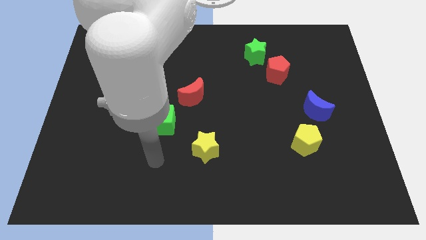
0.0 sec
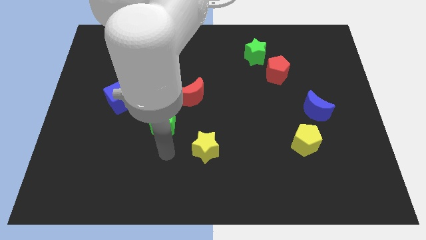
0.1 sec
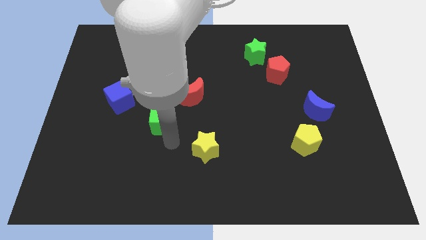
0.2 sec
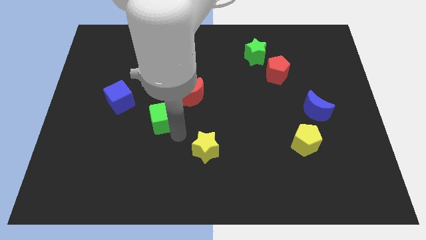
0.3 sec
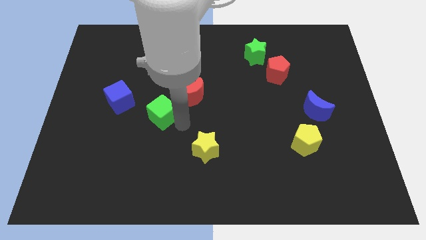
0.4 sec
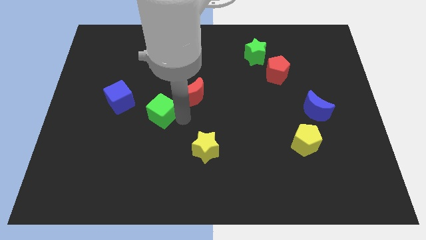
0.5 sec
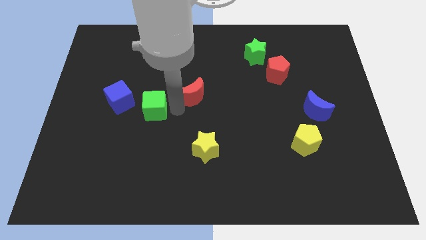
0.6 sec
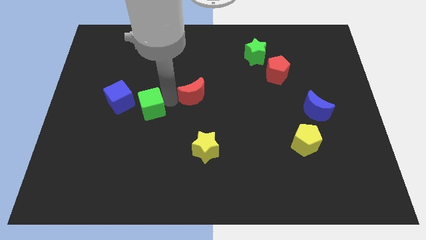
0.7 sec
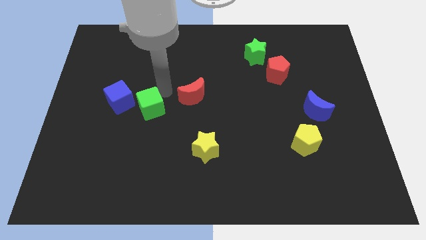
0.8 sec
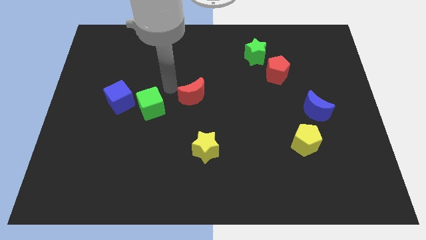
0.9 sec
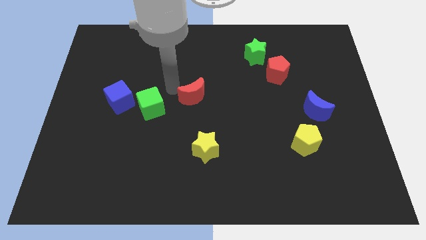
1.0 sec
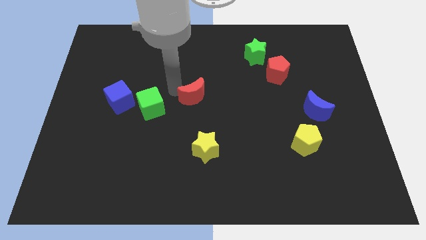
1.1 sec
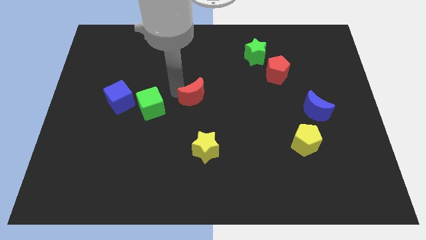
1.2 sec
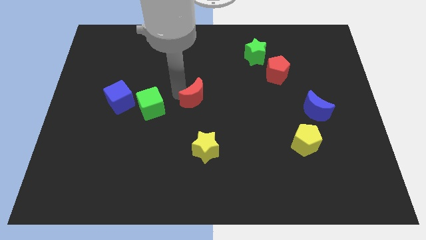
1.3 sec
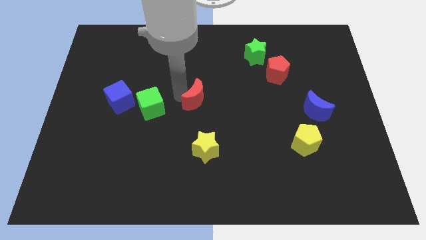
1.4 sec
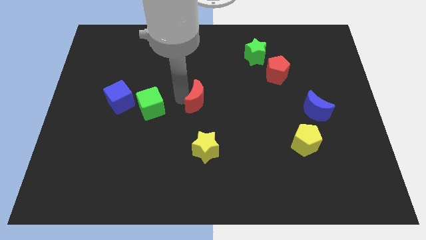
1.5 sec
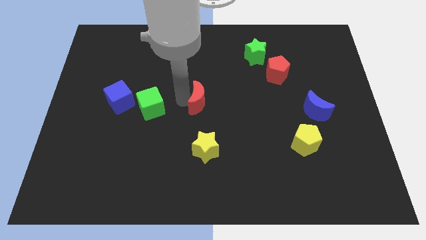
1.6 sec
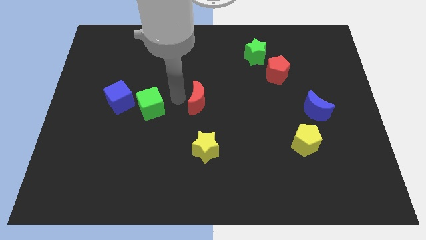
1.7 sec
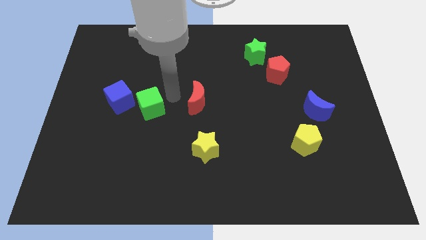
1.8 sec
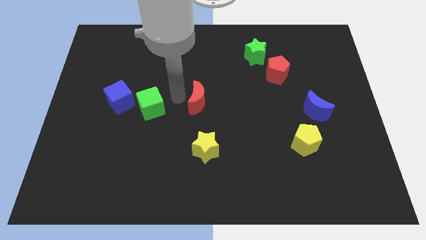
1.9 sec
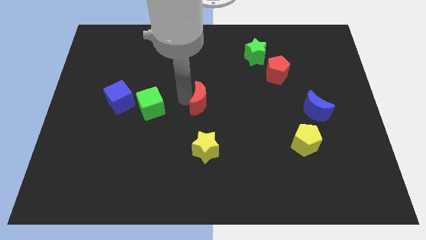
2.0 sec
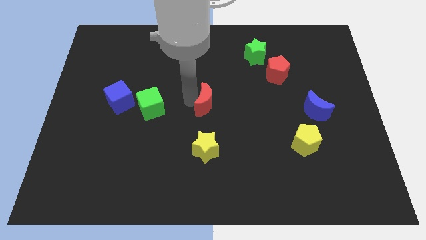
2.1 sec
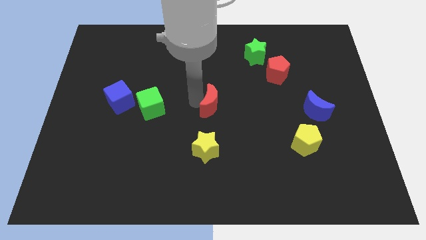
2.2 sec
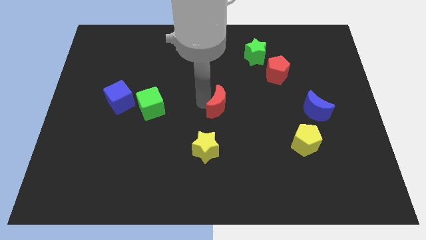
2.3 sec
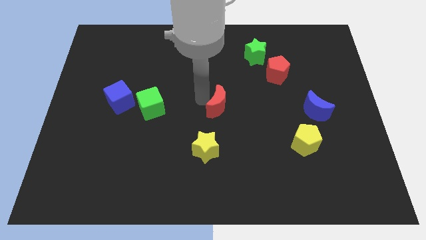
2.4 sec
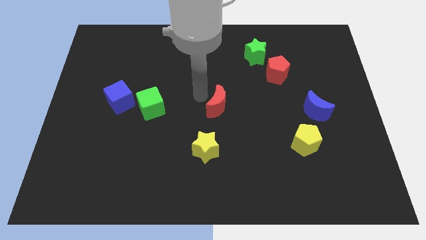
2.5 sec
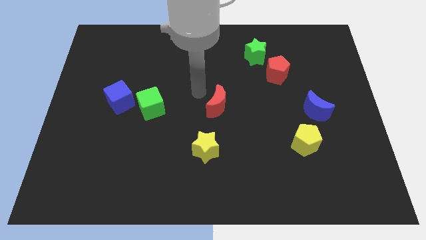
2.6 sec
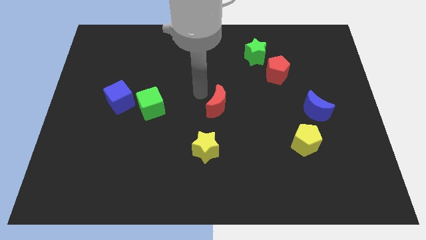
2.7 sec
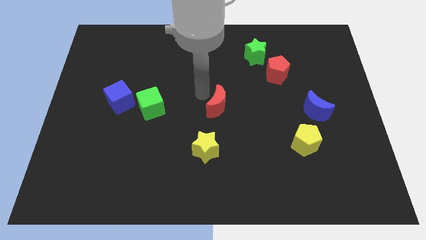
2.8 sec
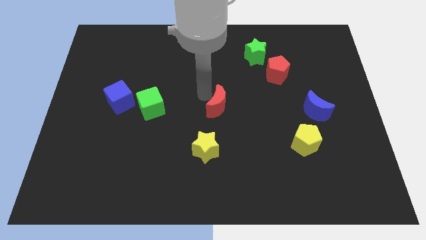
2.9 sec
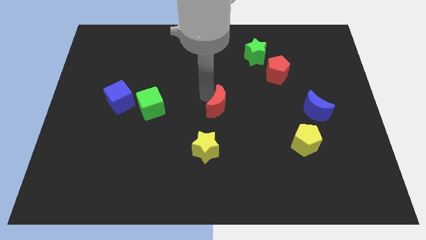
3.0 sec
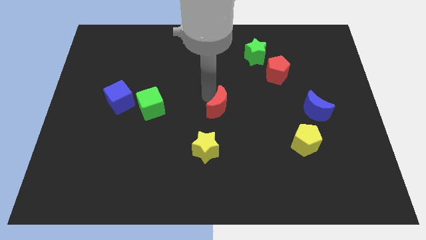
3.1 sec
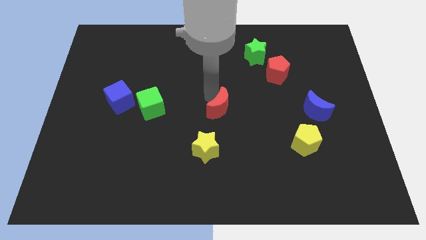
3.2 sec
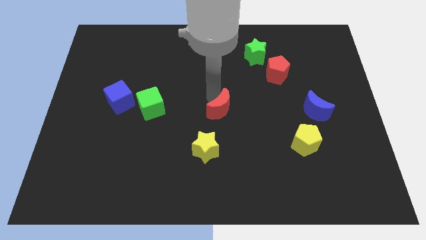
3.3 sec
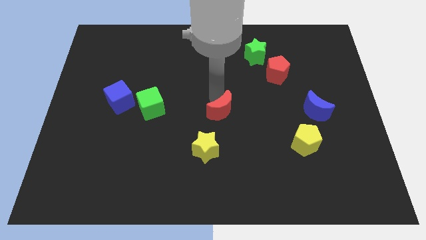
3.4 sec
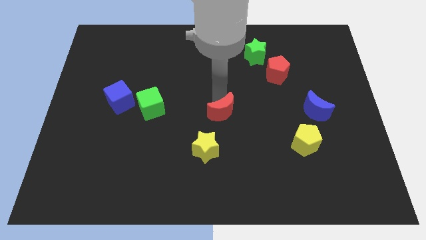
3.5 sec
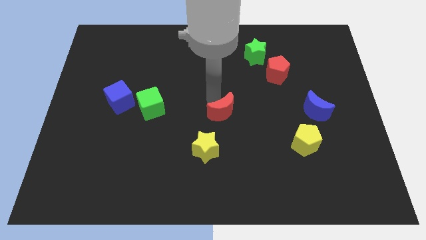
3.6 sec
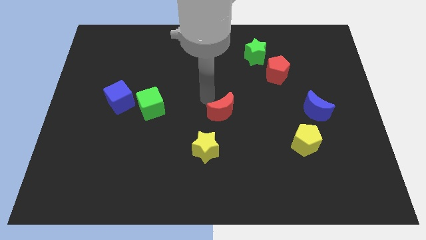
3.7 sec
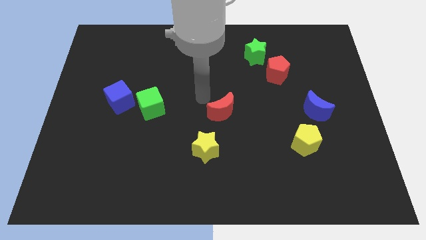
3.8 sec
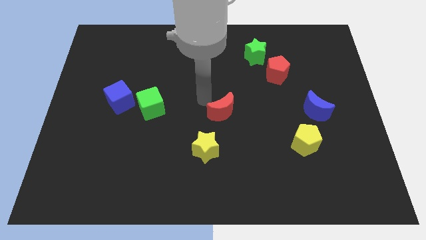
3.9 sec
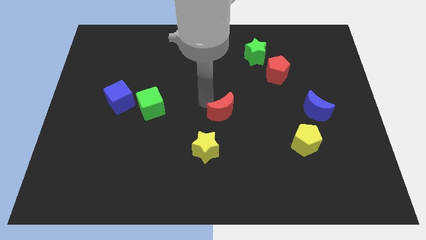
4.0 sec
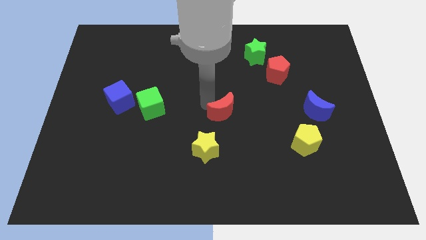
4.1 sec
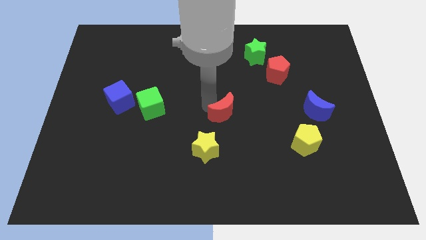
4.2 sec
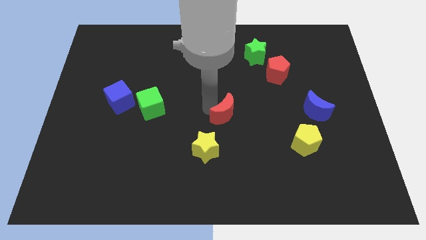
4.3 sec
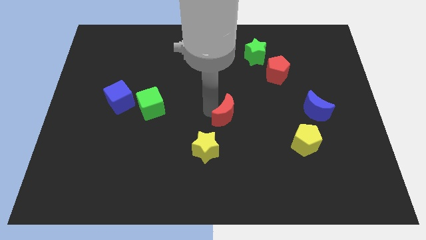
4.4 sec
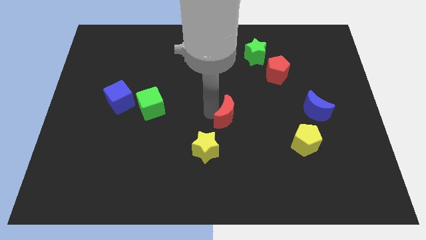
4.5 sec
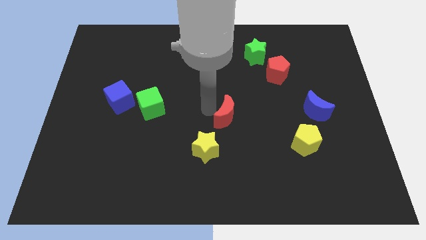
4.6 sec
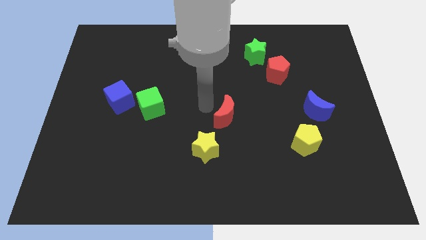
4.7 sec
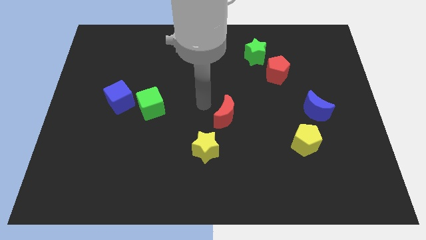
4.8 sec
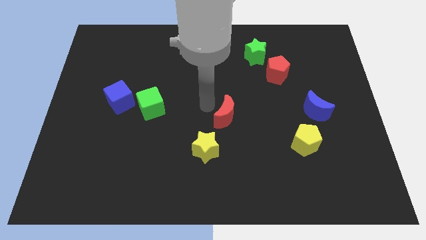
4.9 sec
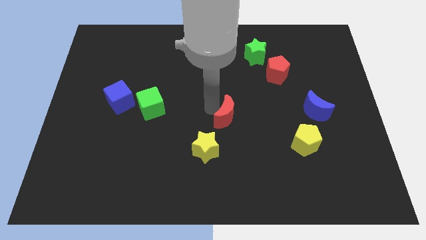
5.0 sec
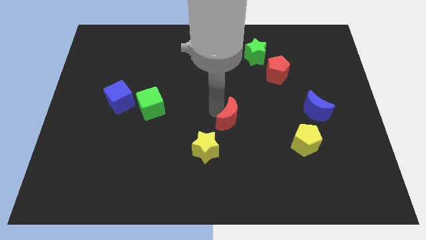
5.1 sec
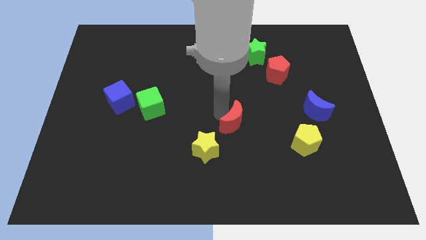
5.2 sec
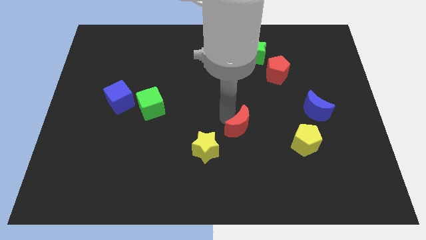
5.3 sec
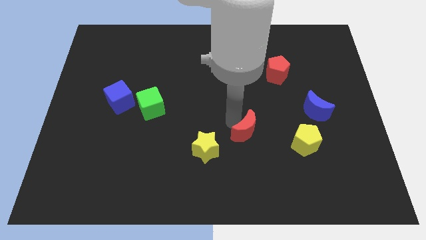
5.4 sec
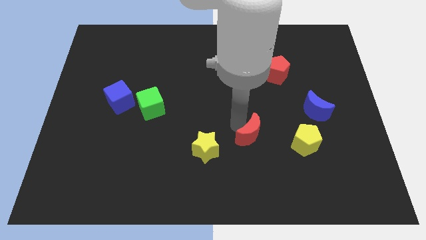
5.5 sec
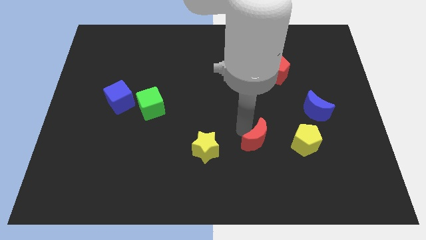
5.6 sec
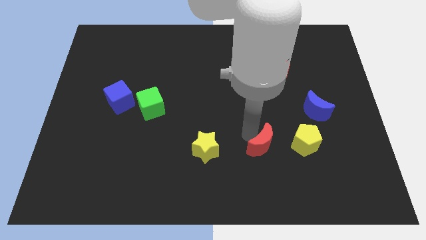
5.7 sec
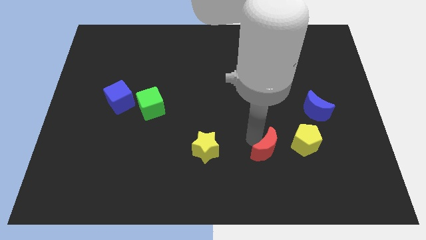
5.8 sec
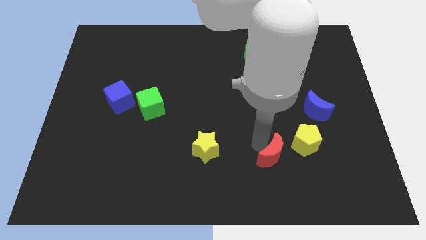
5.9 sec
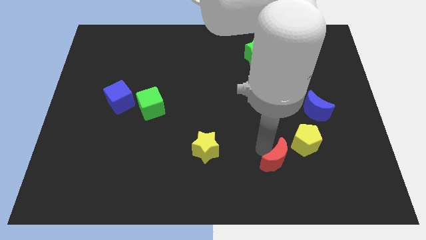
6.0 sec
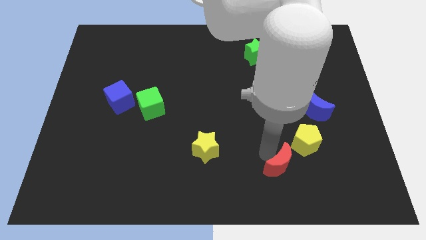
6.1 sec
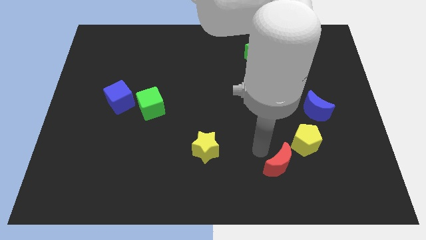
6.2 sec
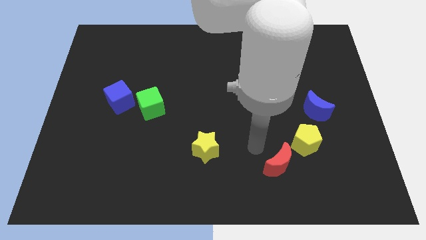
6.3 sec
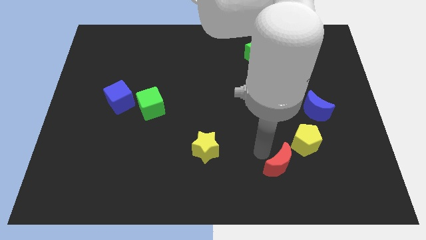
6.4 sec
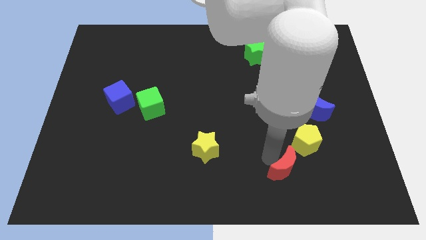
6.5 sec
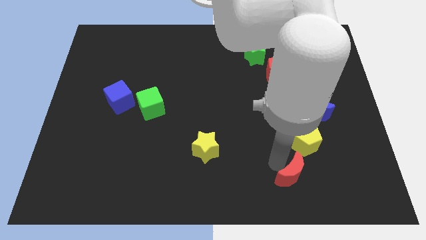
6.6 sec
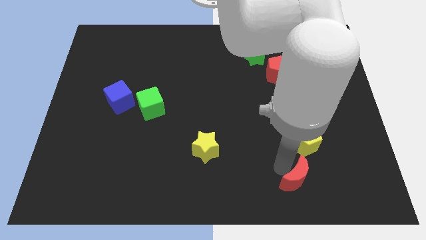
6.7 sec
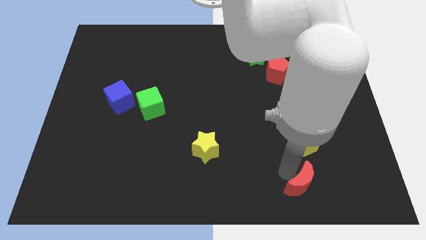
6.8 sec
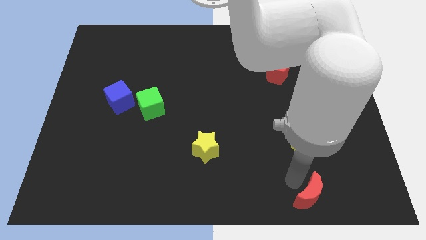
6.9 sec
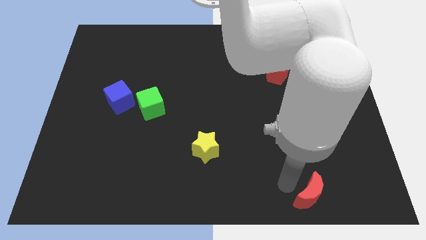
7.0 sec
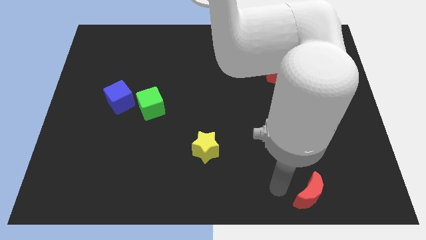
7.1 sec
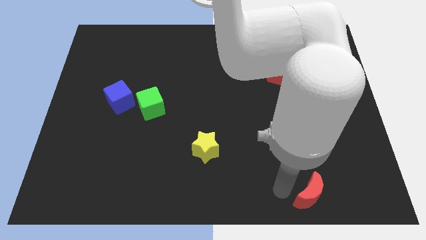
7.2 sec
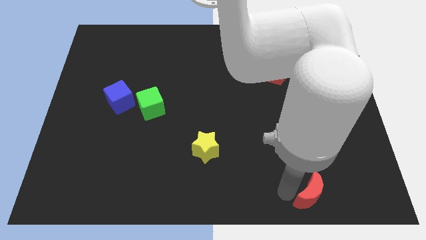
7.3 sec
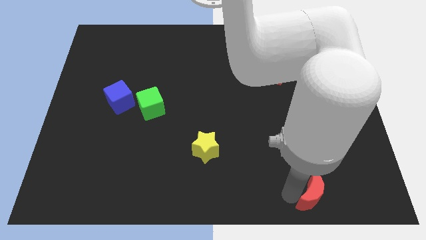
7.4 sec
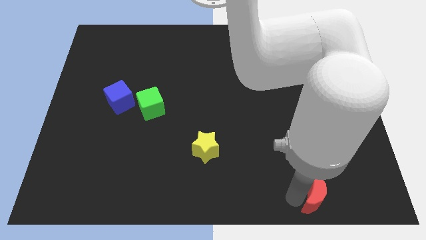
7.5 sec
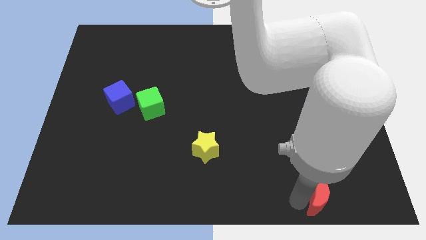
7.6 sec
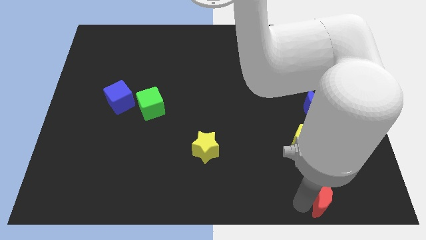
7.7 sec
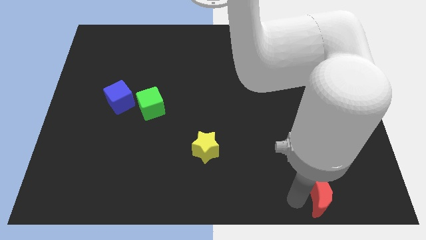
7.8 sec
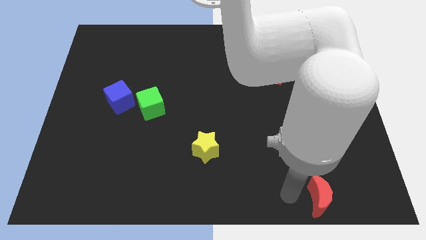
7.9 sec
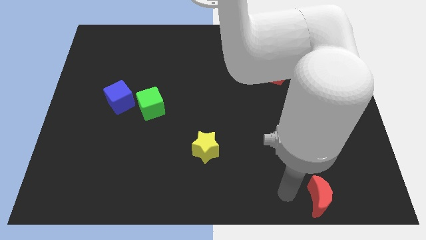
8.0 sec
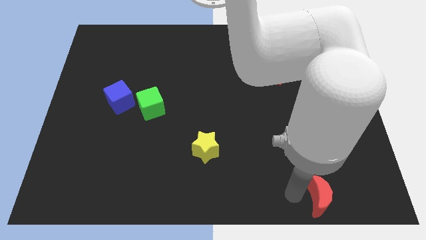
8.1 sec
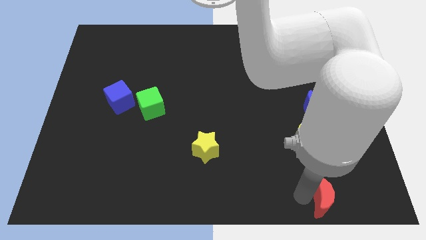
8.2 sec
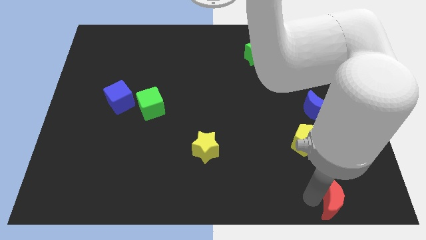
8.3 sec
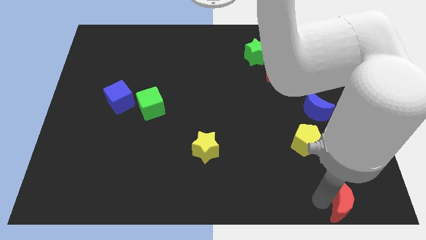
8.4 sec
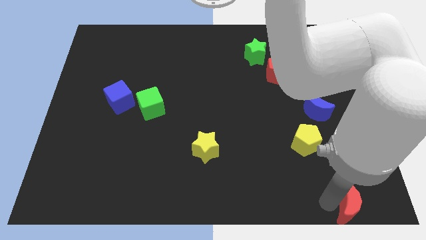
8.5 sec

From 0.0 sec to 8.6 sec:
move the red moon to the bottom right
